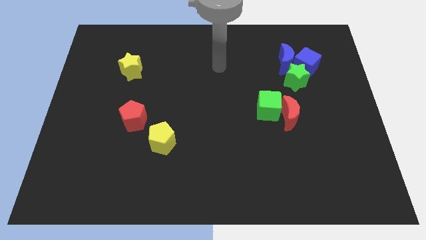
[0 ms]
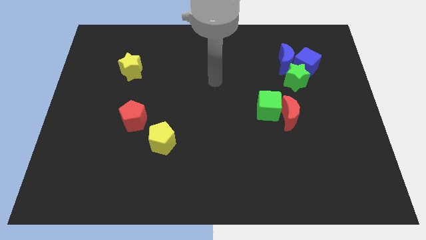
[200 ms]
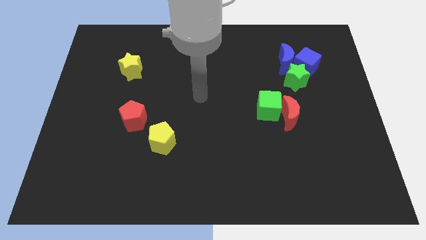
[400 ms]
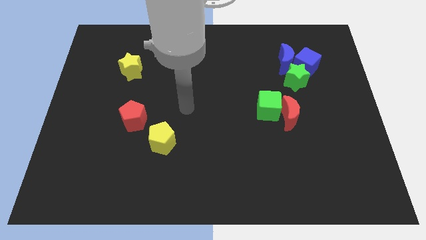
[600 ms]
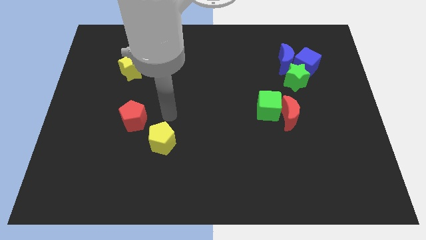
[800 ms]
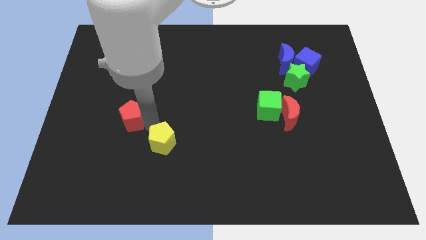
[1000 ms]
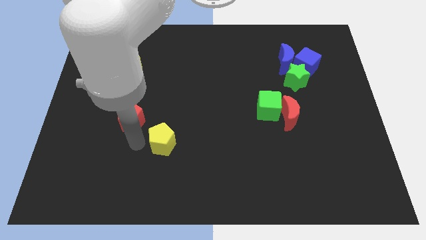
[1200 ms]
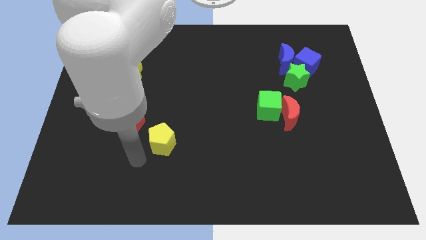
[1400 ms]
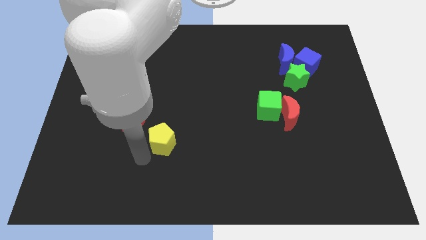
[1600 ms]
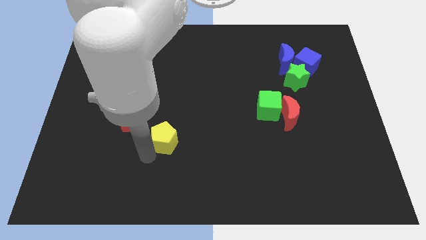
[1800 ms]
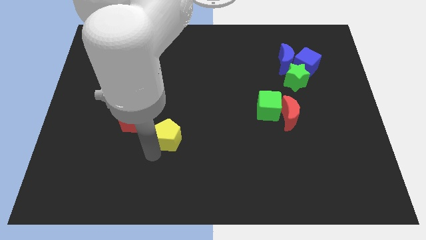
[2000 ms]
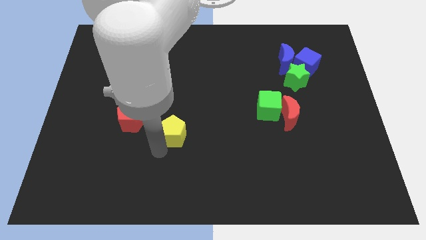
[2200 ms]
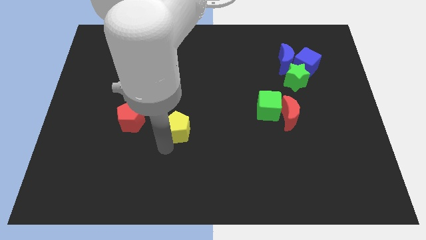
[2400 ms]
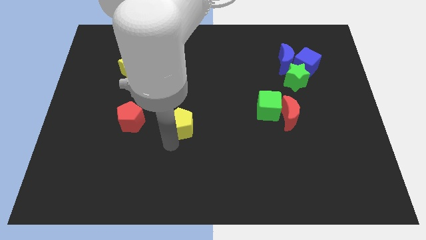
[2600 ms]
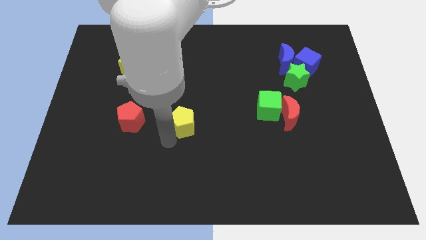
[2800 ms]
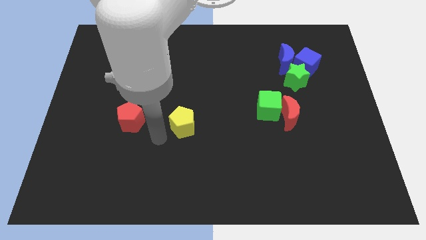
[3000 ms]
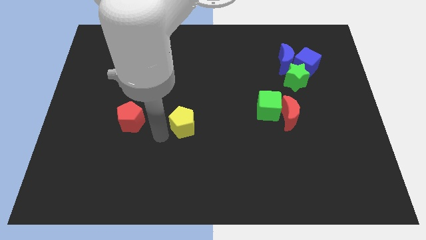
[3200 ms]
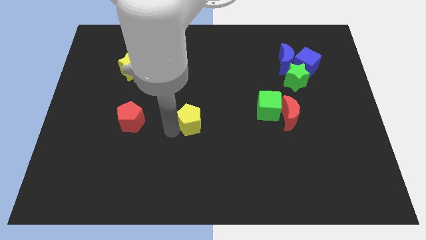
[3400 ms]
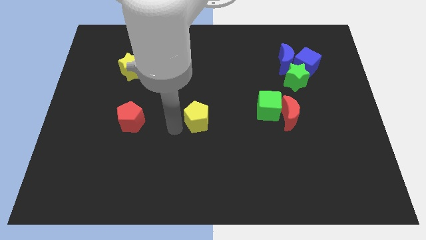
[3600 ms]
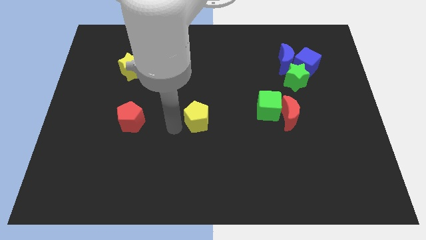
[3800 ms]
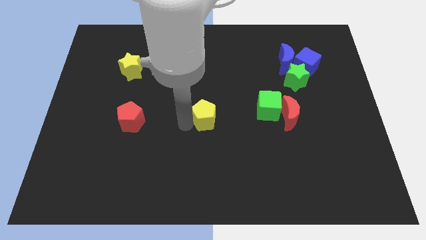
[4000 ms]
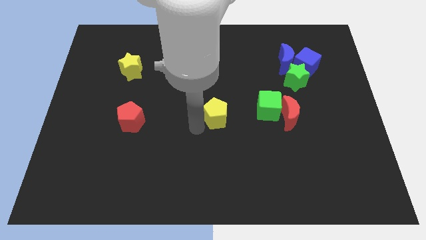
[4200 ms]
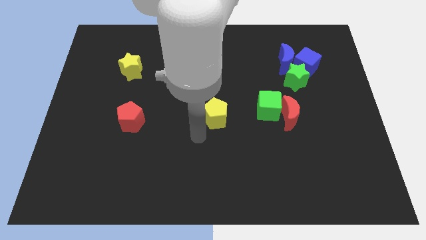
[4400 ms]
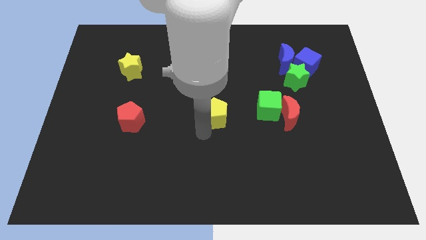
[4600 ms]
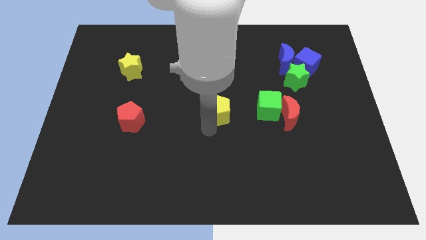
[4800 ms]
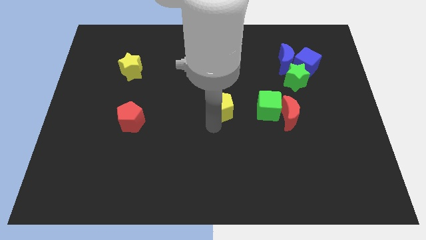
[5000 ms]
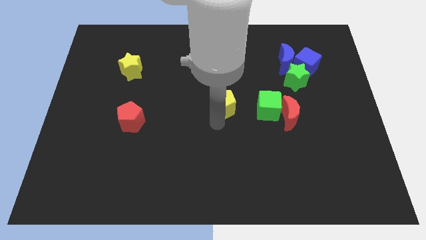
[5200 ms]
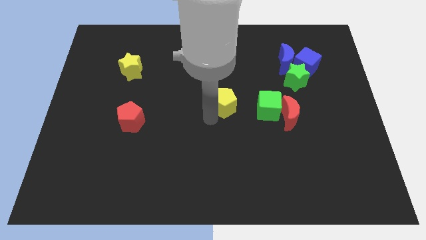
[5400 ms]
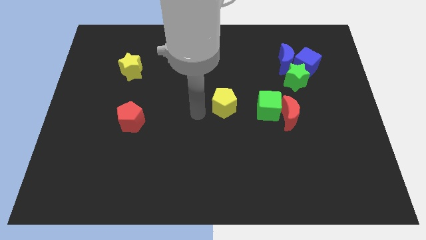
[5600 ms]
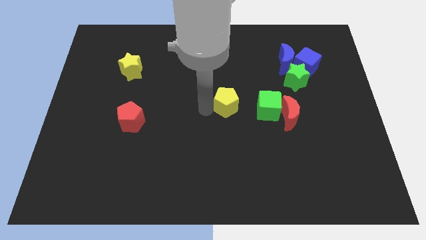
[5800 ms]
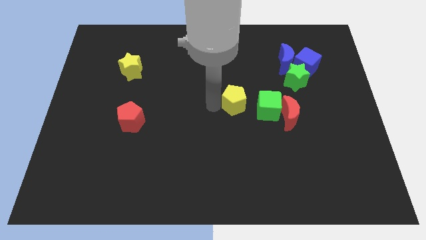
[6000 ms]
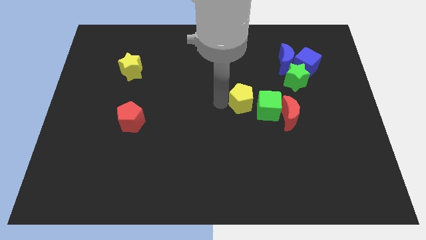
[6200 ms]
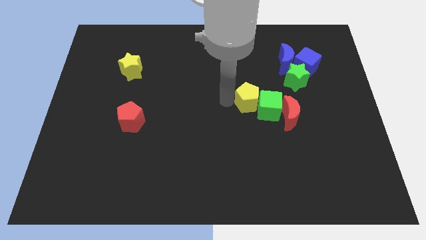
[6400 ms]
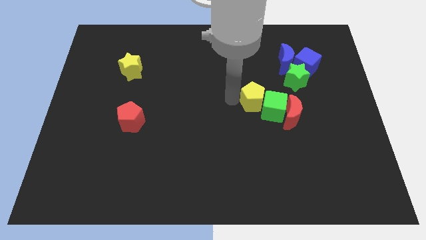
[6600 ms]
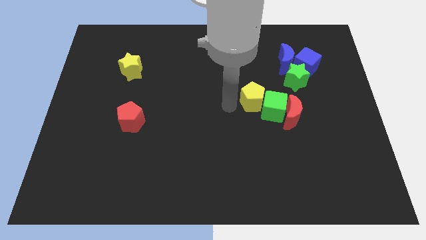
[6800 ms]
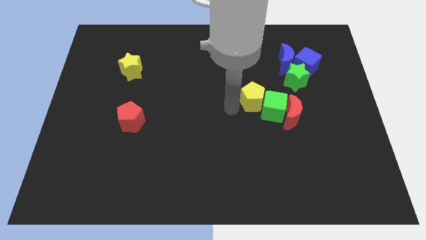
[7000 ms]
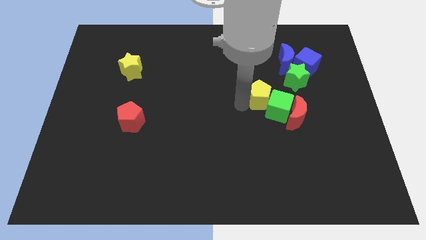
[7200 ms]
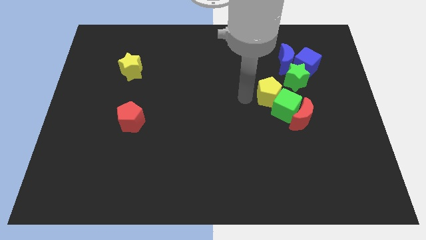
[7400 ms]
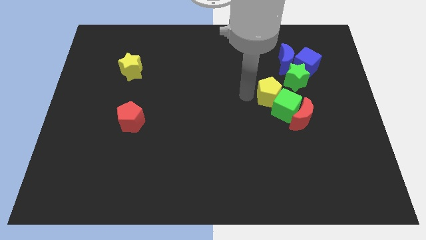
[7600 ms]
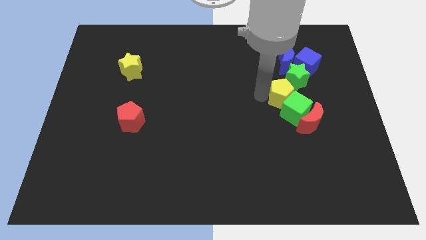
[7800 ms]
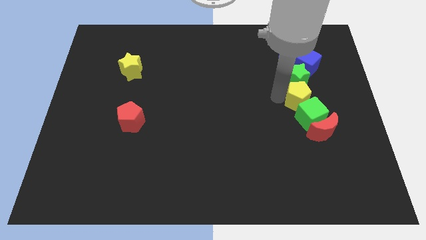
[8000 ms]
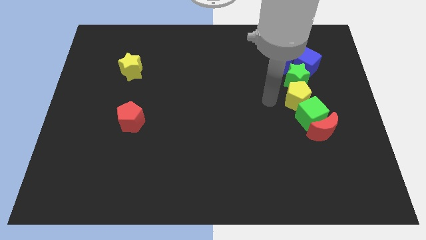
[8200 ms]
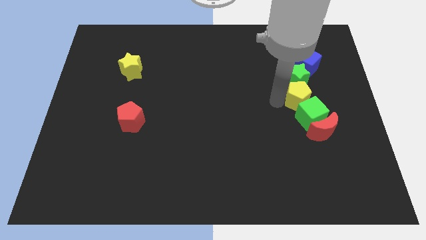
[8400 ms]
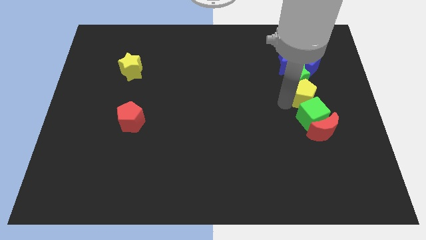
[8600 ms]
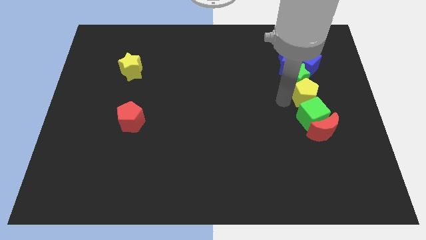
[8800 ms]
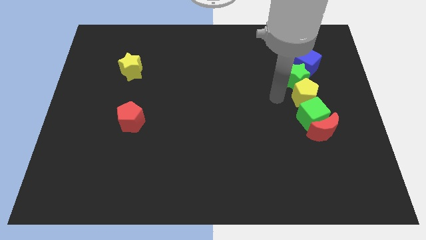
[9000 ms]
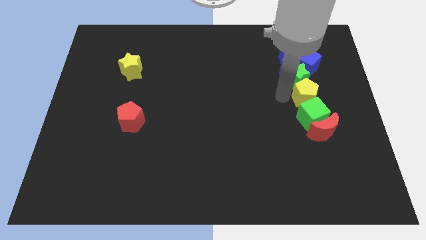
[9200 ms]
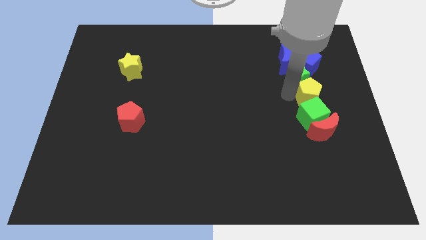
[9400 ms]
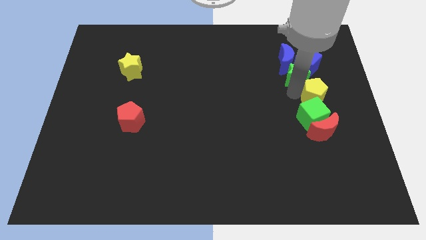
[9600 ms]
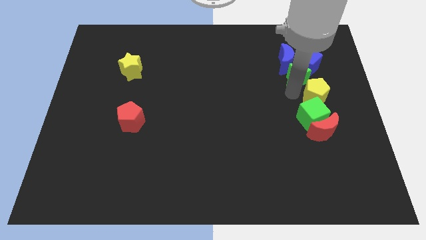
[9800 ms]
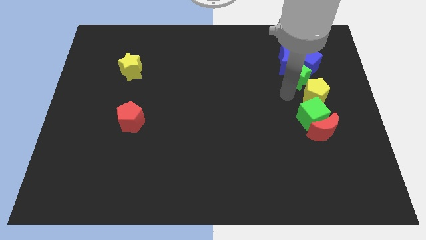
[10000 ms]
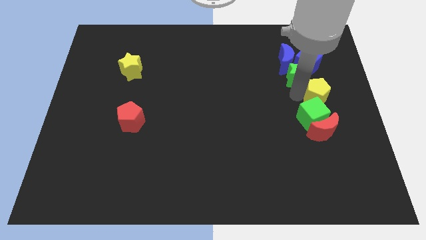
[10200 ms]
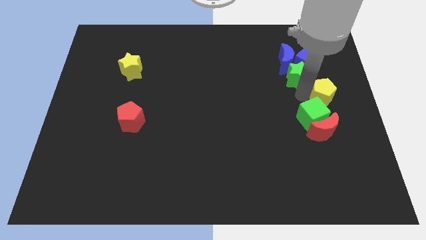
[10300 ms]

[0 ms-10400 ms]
move the yellow pentagon to the center right

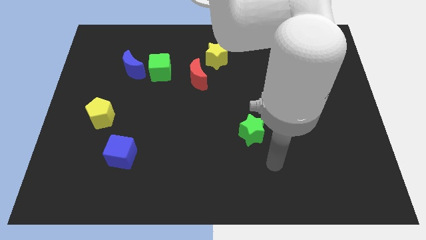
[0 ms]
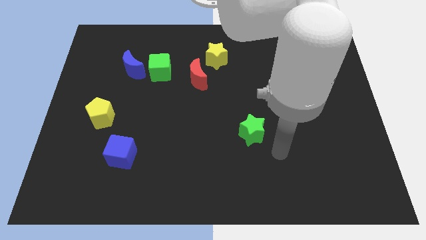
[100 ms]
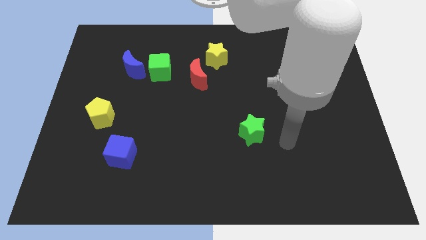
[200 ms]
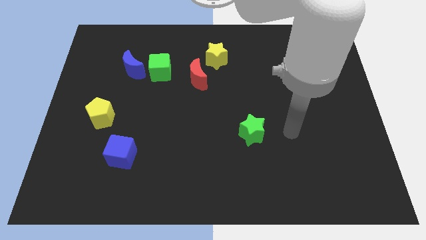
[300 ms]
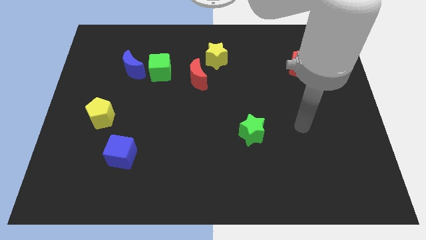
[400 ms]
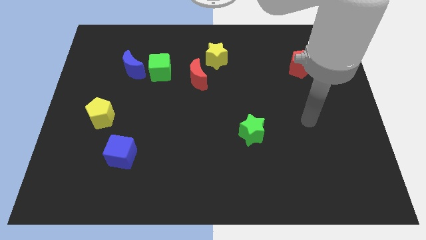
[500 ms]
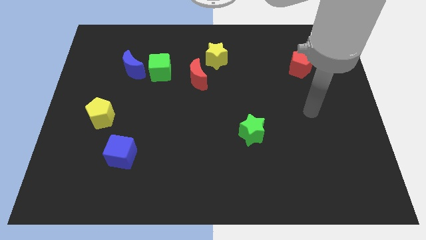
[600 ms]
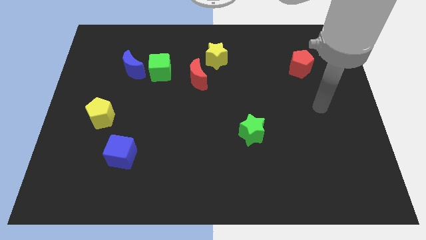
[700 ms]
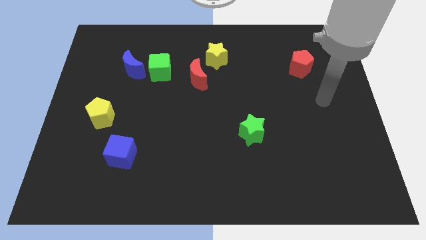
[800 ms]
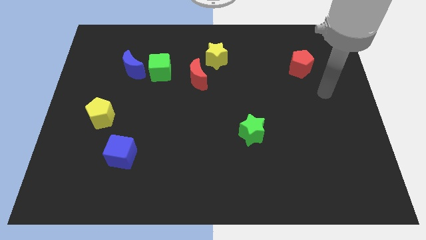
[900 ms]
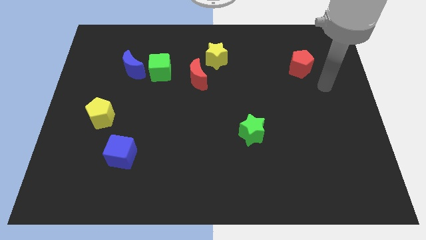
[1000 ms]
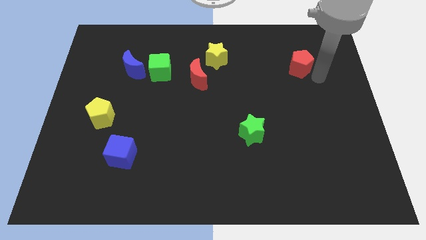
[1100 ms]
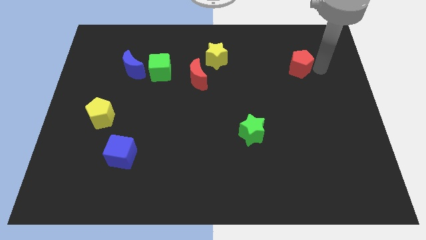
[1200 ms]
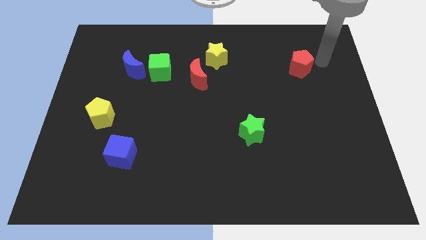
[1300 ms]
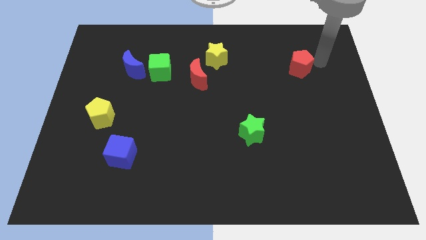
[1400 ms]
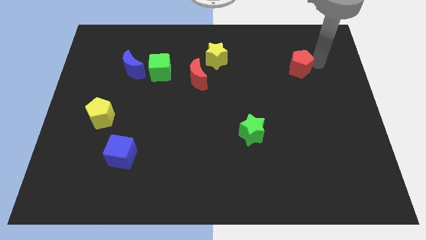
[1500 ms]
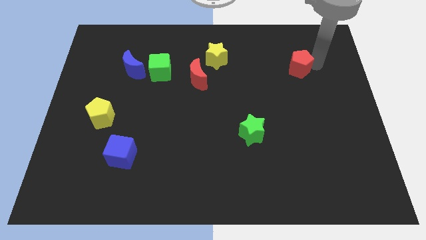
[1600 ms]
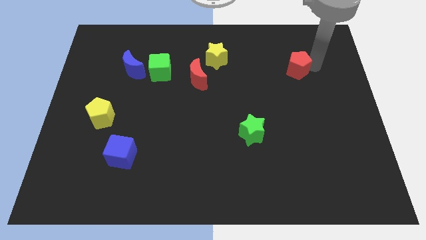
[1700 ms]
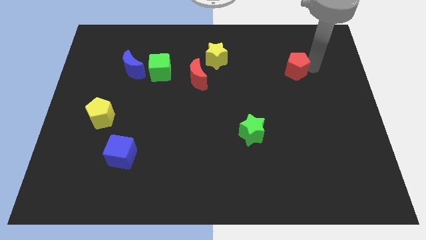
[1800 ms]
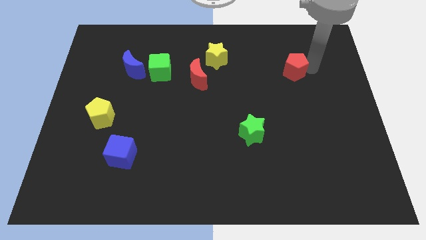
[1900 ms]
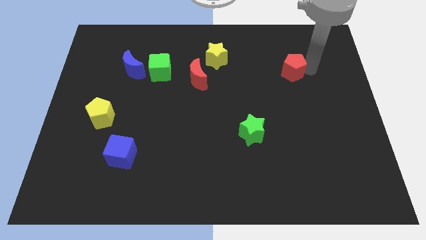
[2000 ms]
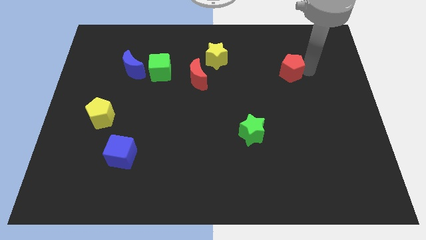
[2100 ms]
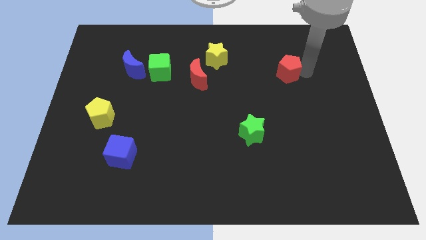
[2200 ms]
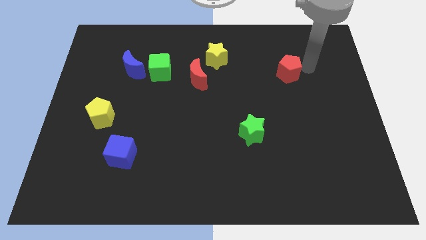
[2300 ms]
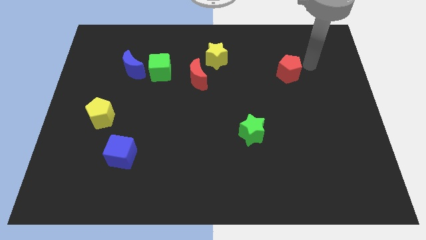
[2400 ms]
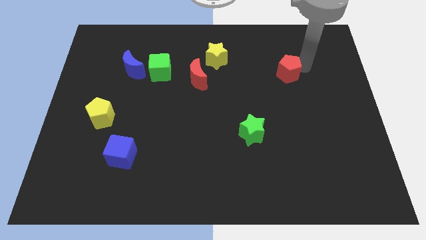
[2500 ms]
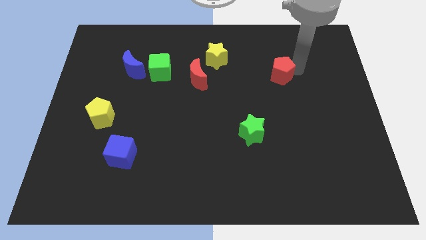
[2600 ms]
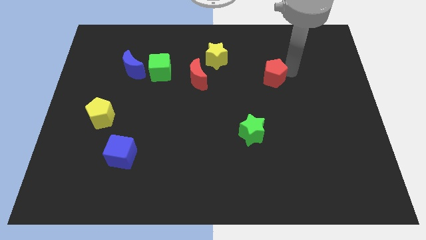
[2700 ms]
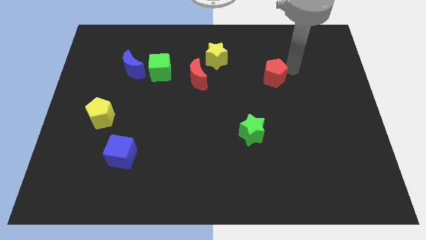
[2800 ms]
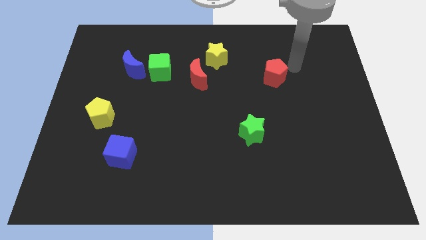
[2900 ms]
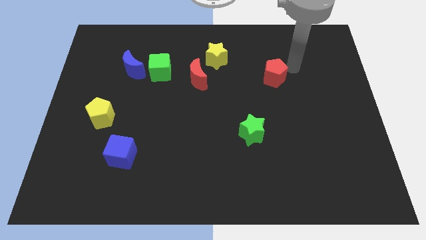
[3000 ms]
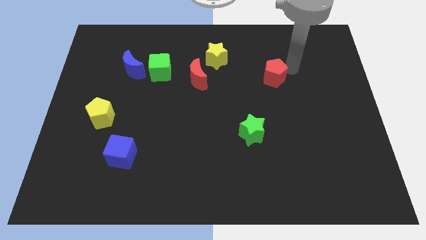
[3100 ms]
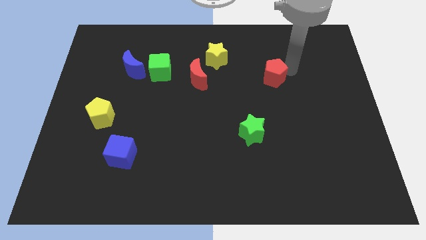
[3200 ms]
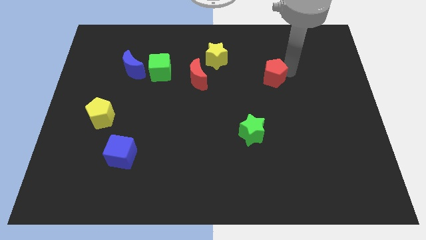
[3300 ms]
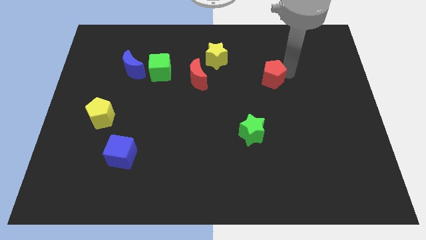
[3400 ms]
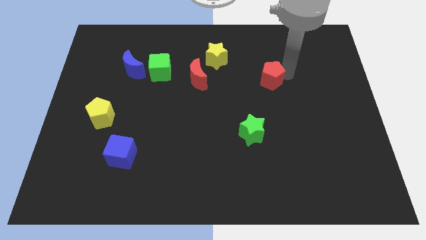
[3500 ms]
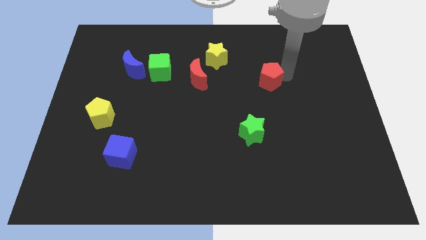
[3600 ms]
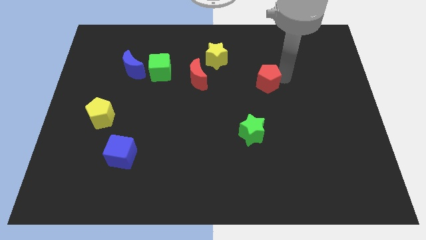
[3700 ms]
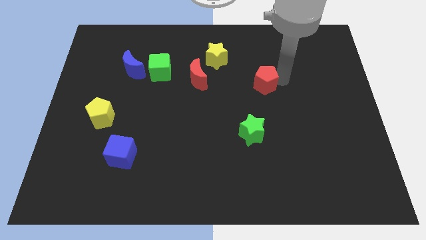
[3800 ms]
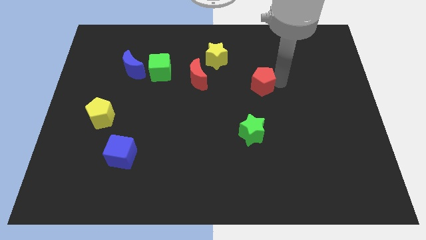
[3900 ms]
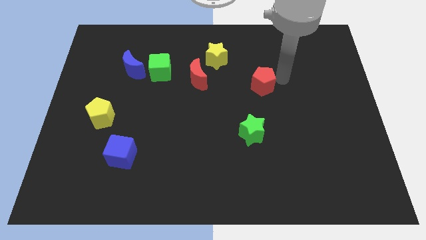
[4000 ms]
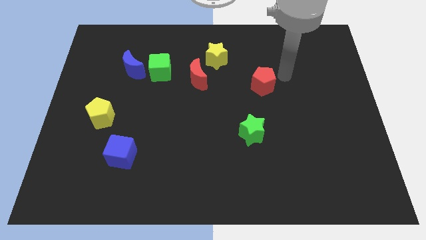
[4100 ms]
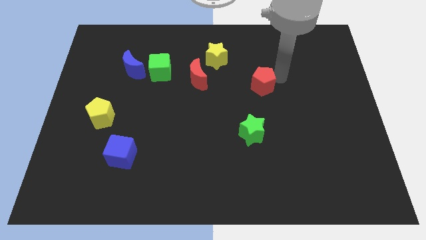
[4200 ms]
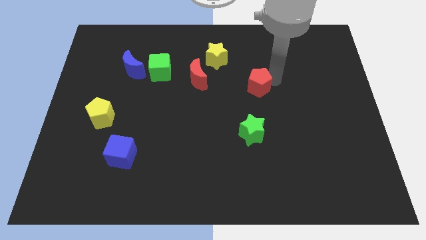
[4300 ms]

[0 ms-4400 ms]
slide the red pentagon to the middle of the board
